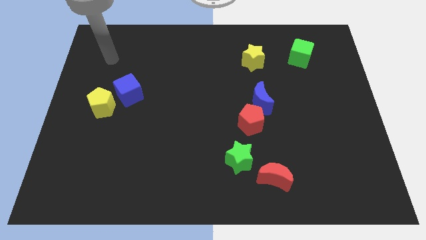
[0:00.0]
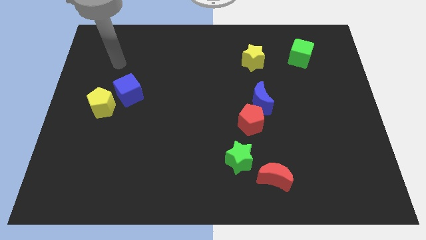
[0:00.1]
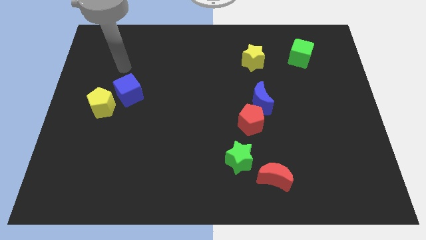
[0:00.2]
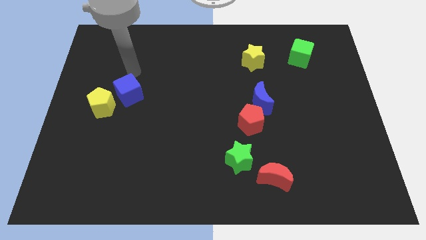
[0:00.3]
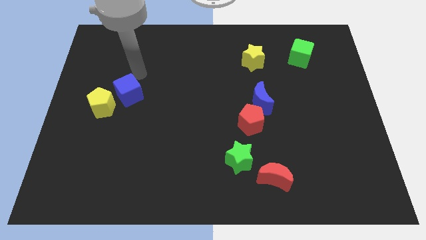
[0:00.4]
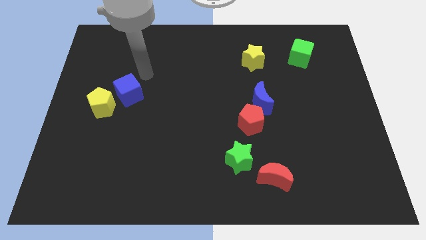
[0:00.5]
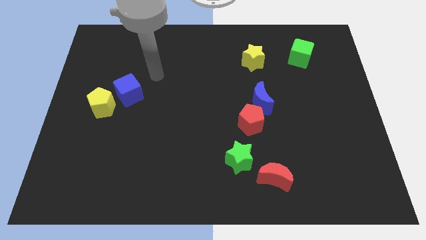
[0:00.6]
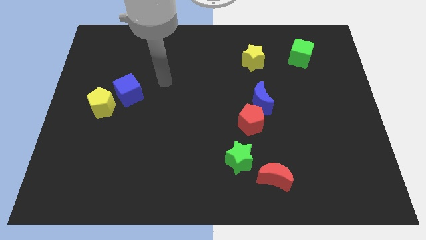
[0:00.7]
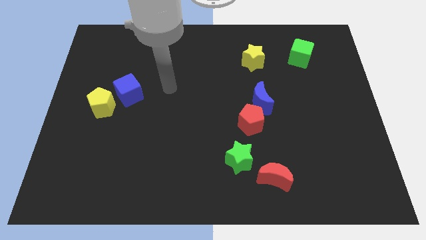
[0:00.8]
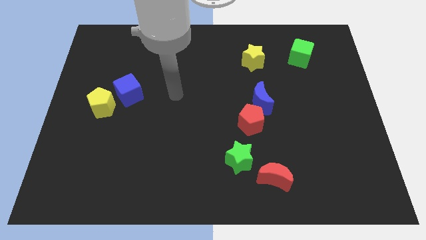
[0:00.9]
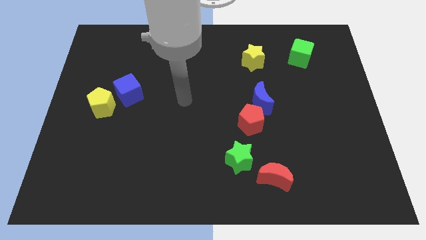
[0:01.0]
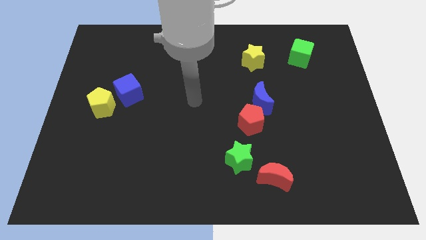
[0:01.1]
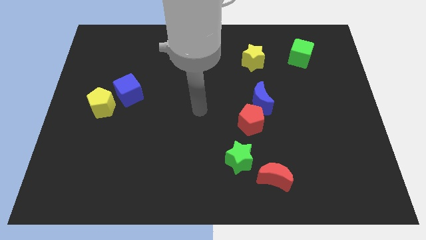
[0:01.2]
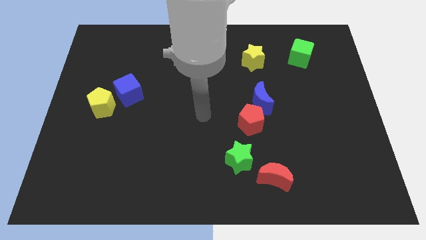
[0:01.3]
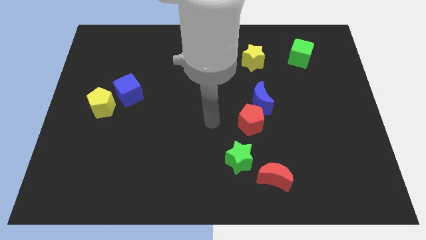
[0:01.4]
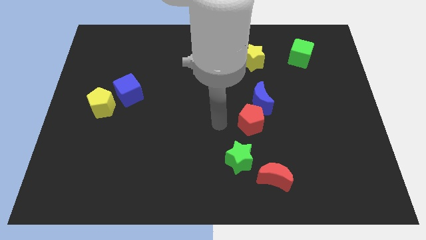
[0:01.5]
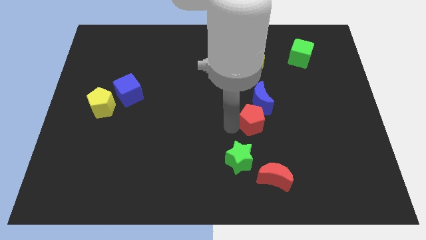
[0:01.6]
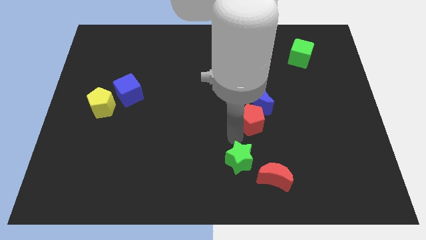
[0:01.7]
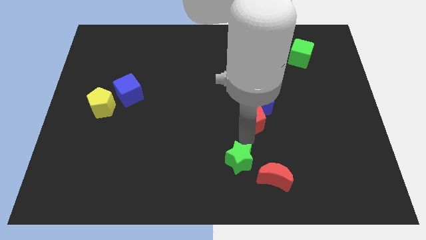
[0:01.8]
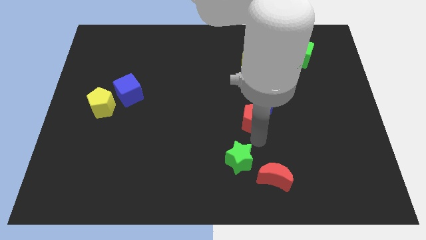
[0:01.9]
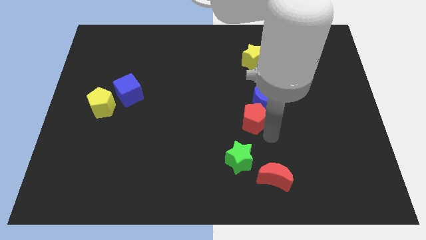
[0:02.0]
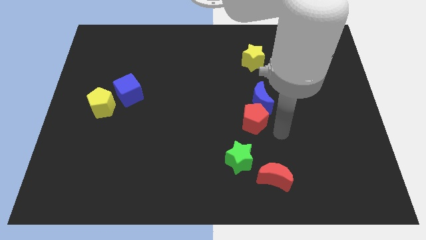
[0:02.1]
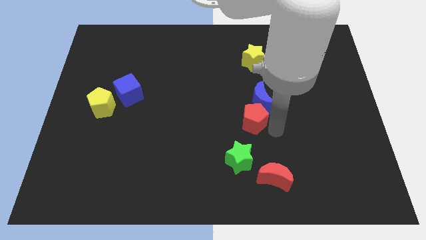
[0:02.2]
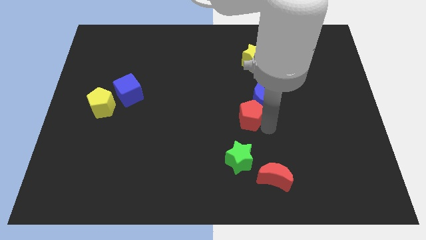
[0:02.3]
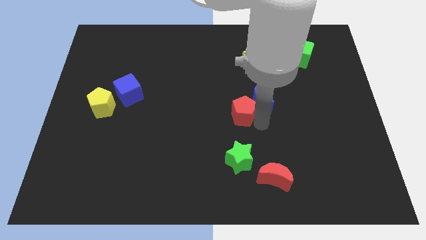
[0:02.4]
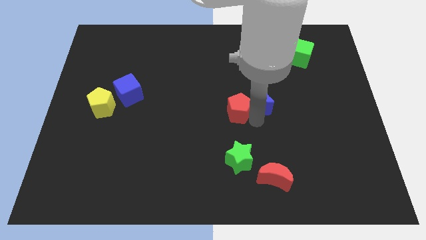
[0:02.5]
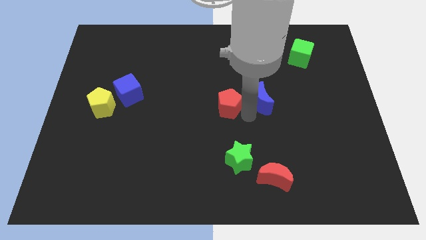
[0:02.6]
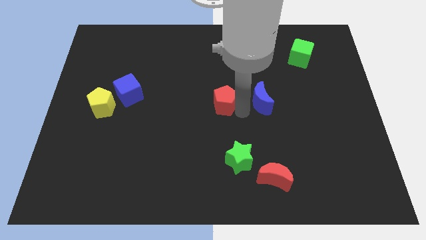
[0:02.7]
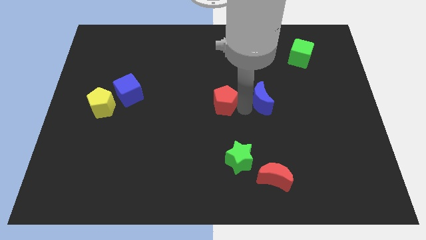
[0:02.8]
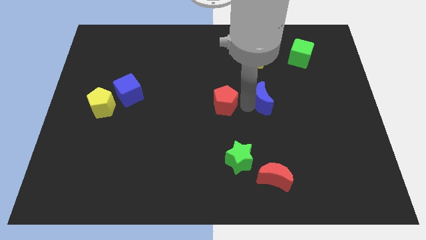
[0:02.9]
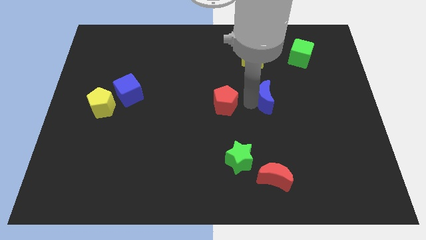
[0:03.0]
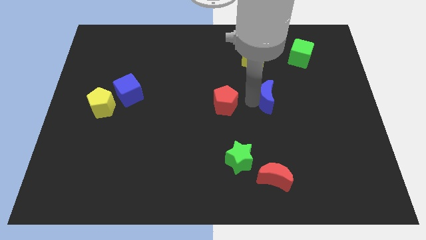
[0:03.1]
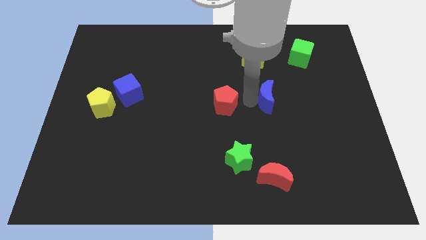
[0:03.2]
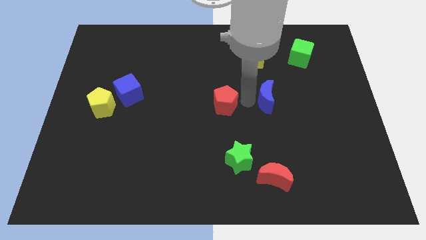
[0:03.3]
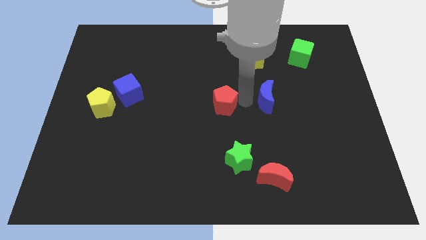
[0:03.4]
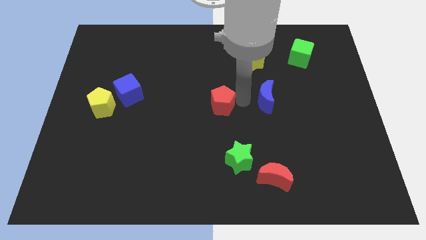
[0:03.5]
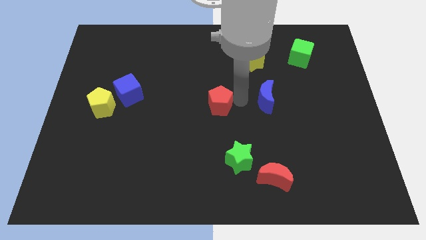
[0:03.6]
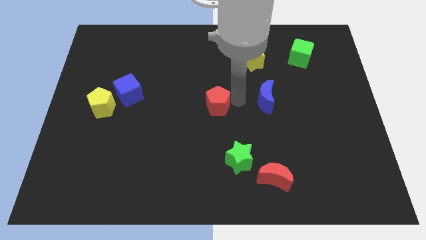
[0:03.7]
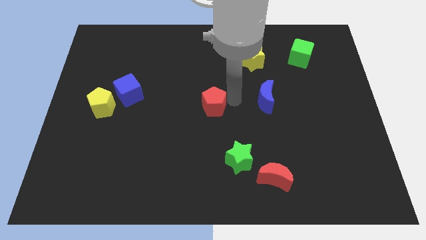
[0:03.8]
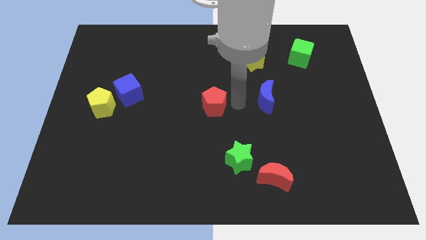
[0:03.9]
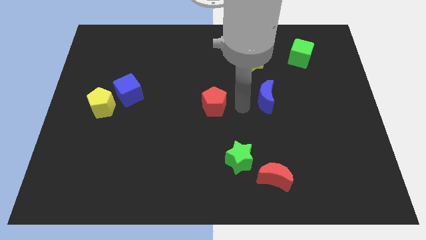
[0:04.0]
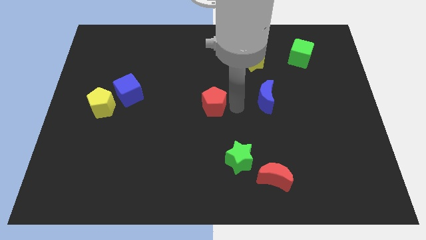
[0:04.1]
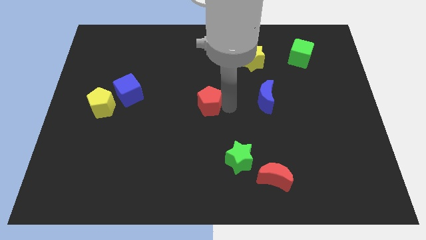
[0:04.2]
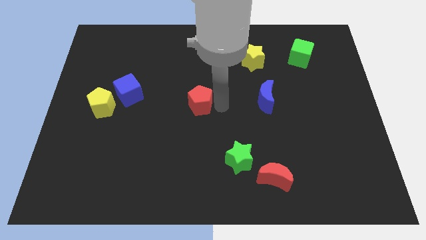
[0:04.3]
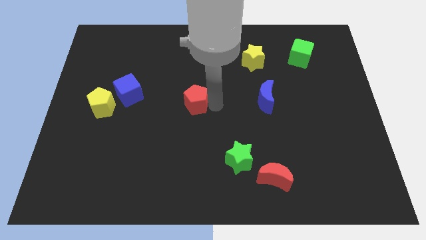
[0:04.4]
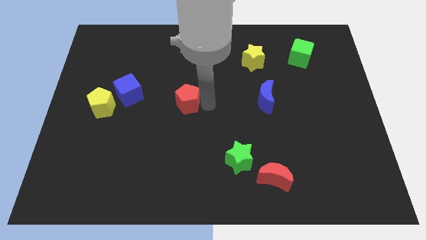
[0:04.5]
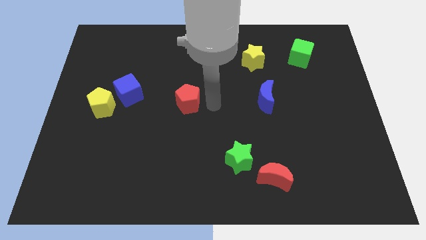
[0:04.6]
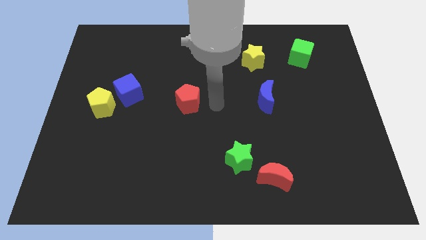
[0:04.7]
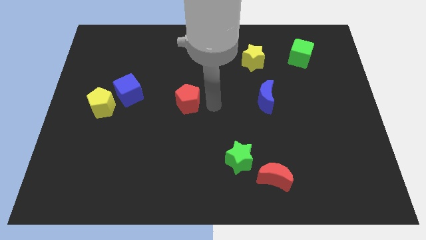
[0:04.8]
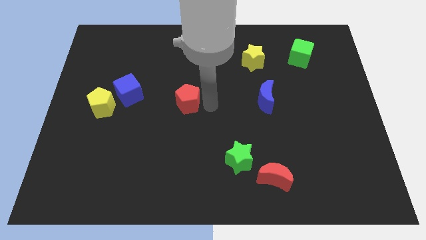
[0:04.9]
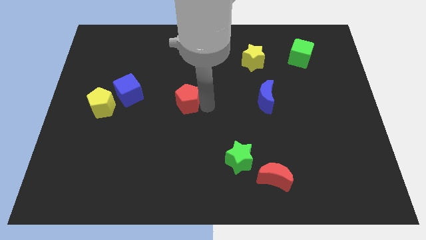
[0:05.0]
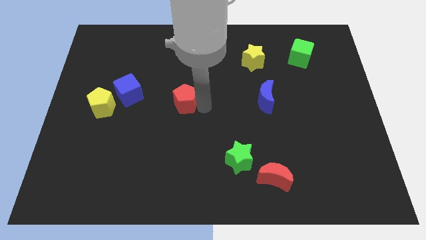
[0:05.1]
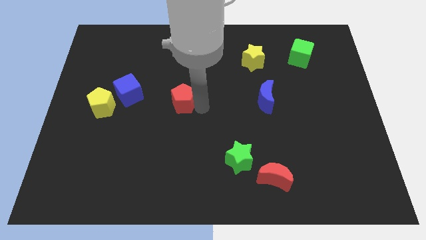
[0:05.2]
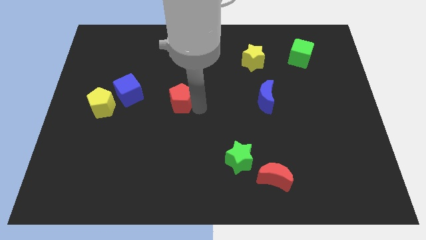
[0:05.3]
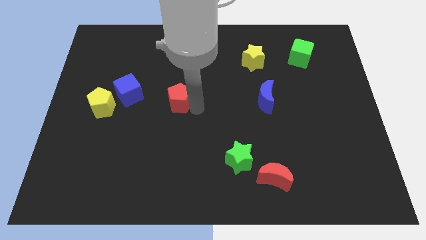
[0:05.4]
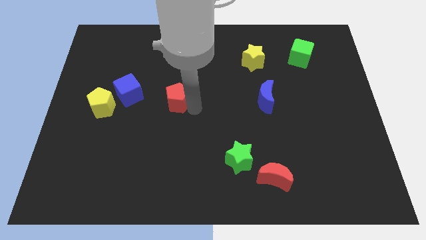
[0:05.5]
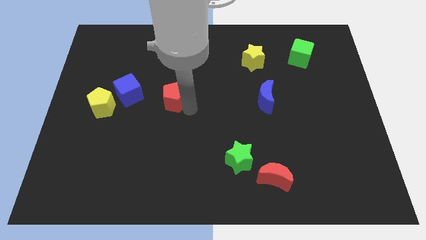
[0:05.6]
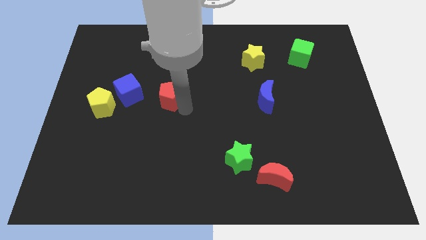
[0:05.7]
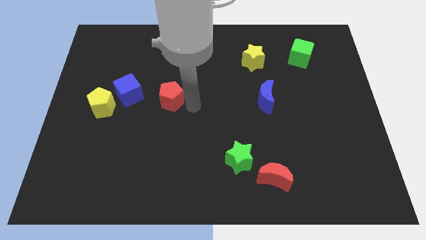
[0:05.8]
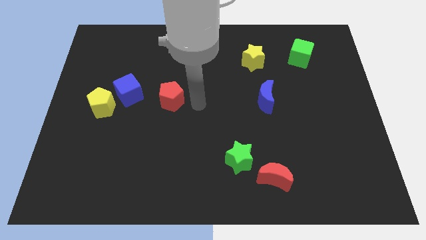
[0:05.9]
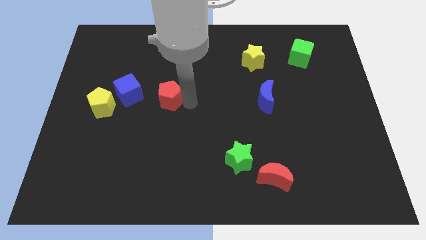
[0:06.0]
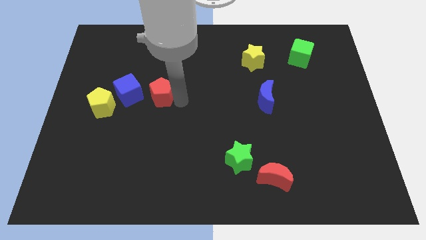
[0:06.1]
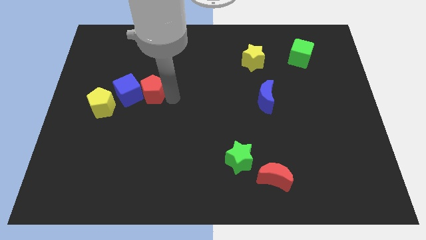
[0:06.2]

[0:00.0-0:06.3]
put the red pentagon close to the blue cube
